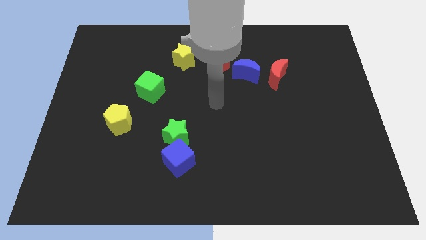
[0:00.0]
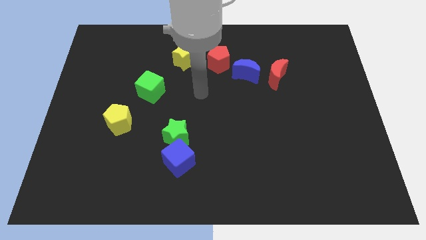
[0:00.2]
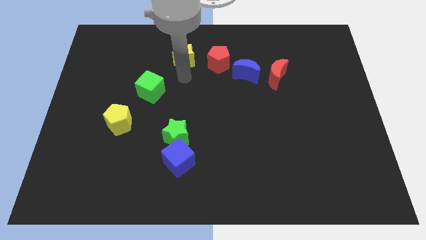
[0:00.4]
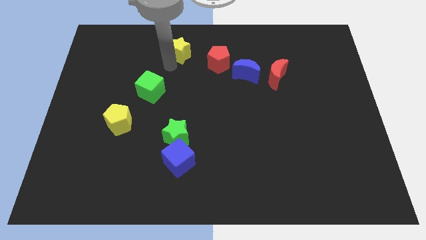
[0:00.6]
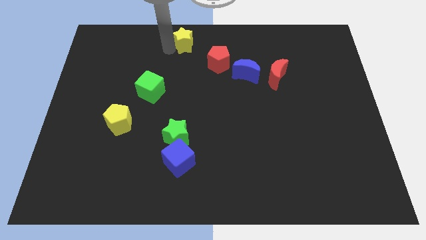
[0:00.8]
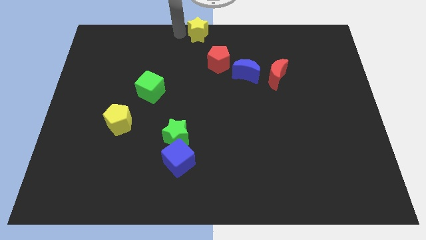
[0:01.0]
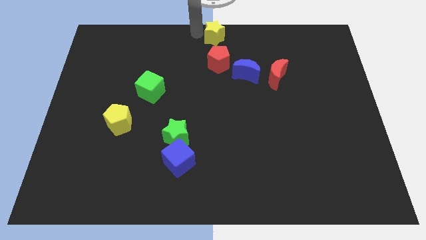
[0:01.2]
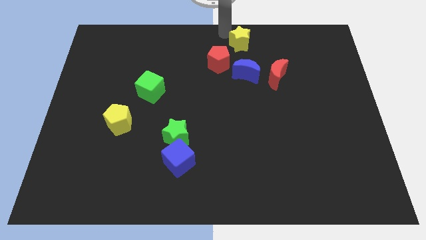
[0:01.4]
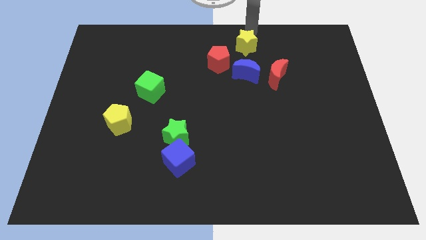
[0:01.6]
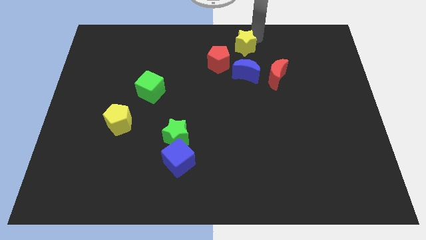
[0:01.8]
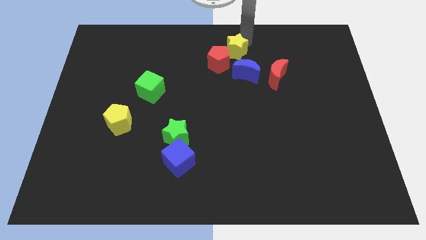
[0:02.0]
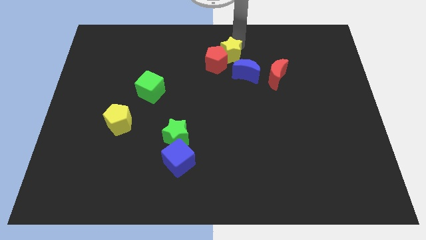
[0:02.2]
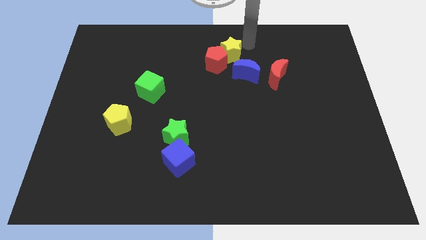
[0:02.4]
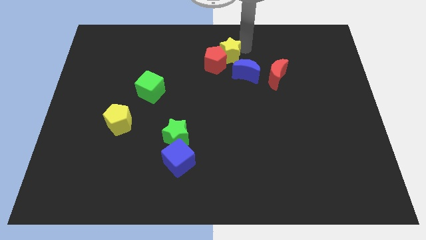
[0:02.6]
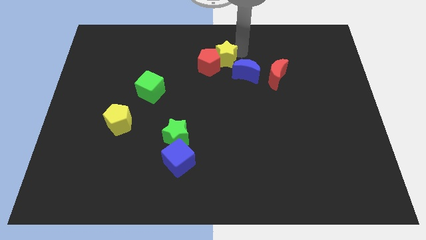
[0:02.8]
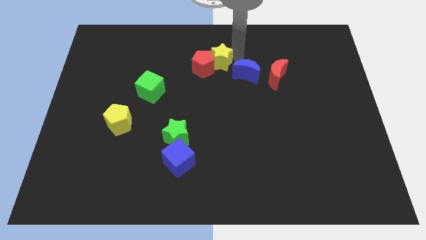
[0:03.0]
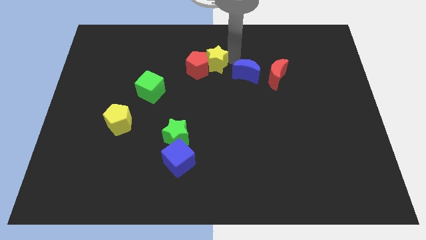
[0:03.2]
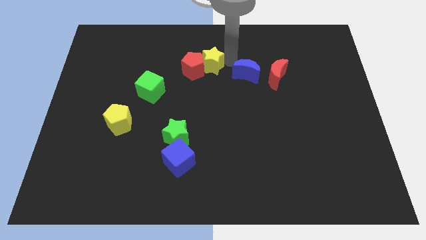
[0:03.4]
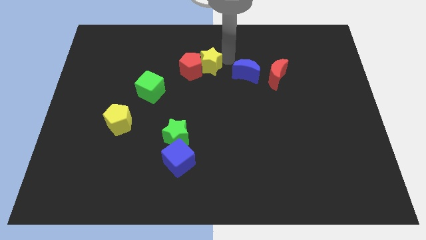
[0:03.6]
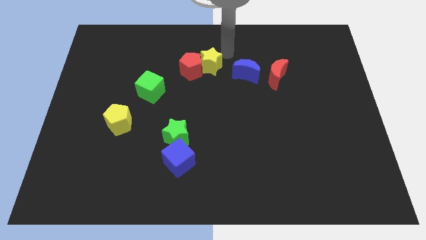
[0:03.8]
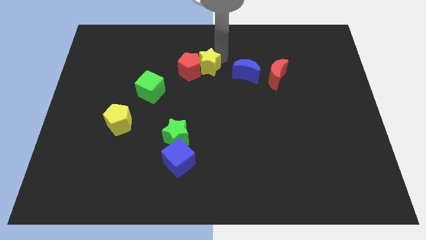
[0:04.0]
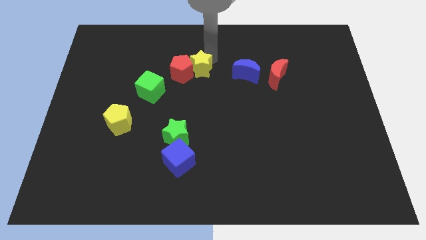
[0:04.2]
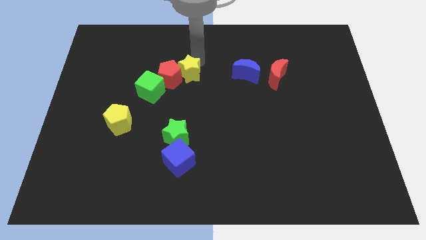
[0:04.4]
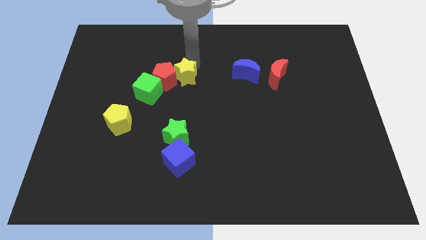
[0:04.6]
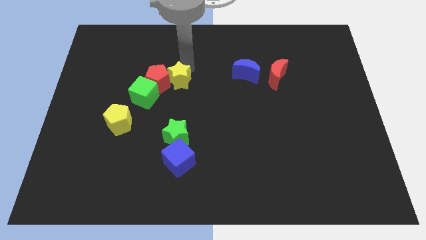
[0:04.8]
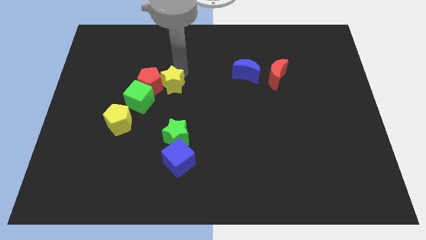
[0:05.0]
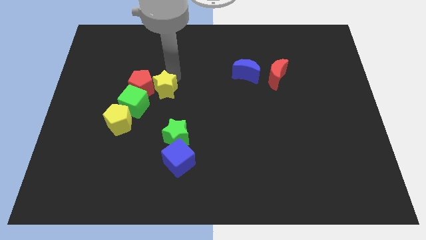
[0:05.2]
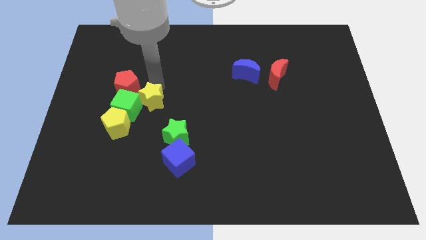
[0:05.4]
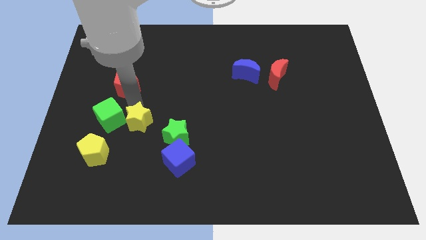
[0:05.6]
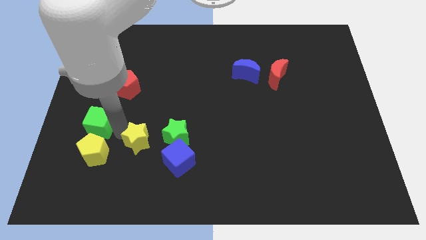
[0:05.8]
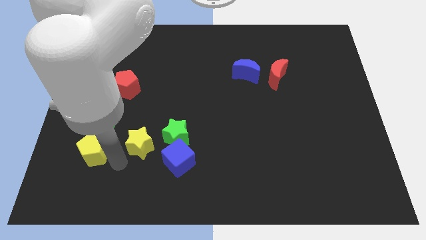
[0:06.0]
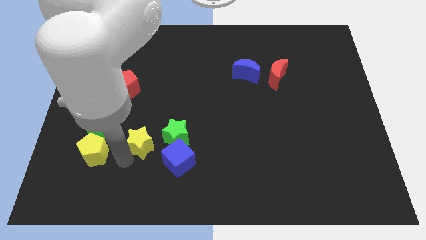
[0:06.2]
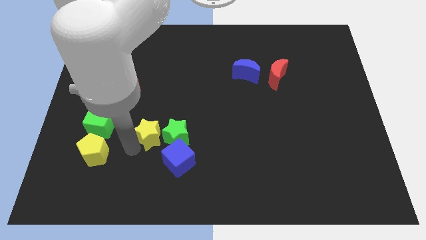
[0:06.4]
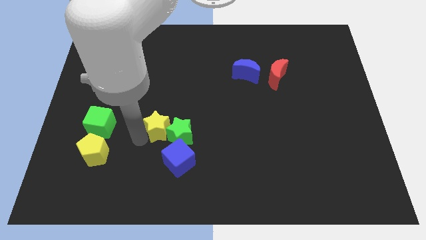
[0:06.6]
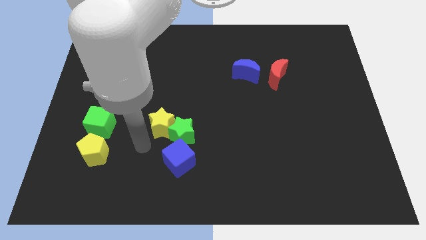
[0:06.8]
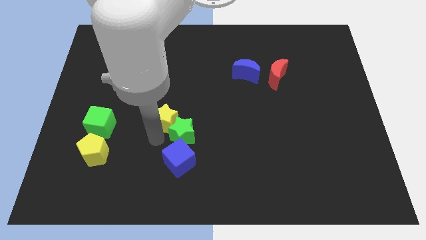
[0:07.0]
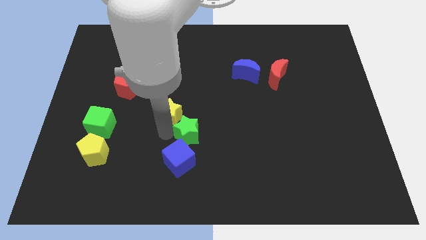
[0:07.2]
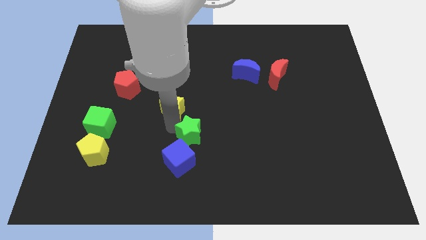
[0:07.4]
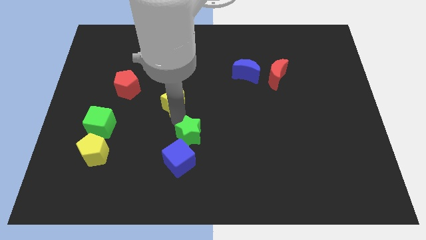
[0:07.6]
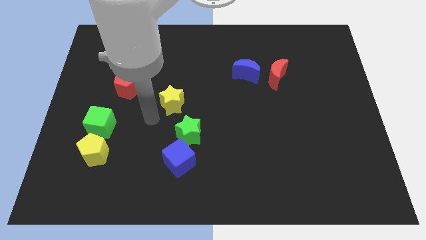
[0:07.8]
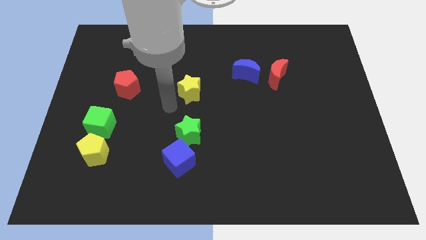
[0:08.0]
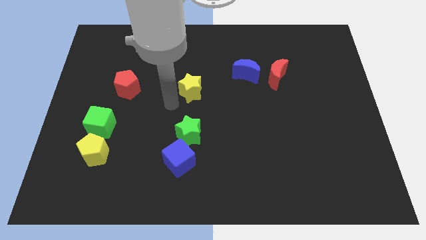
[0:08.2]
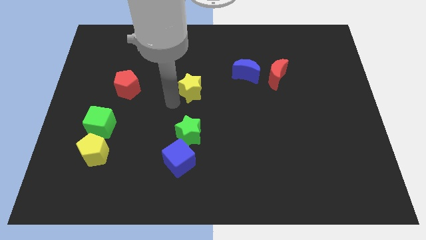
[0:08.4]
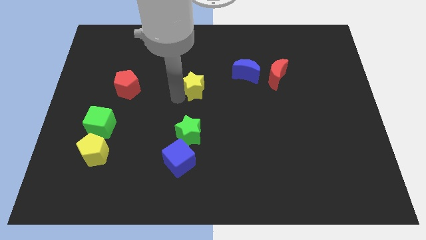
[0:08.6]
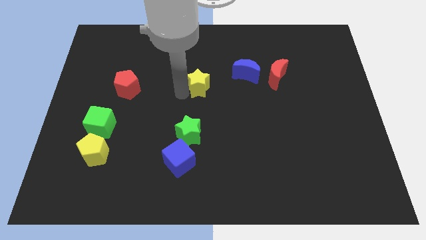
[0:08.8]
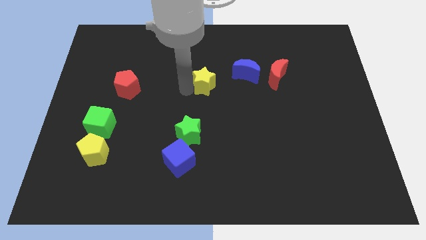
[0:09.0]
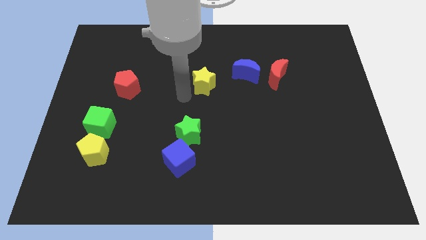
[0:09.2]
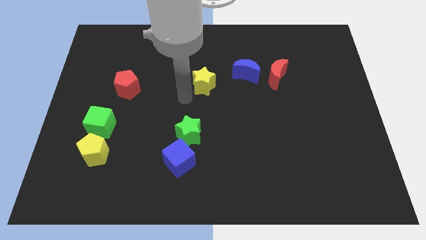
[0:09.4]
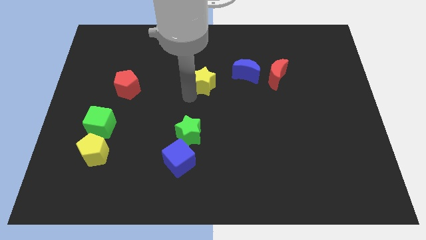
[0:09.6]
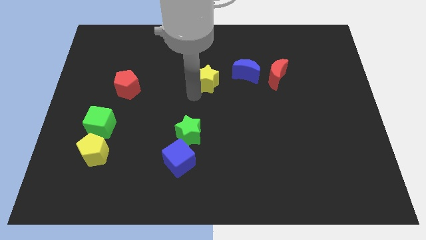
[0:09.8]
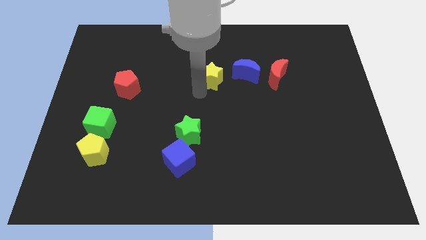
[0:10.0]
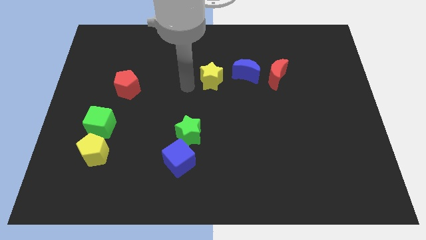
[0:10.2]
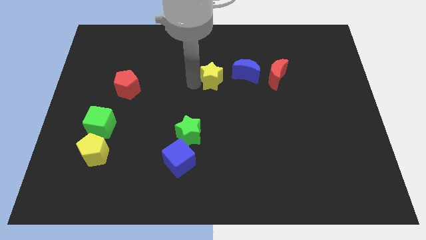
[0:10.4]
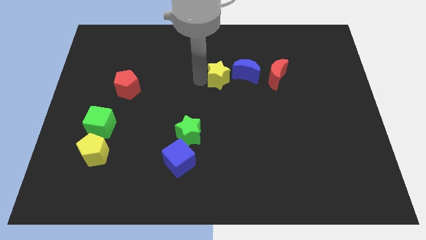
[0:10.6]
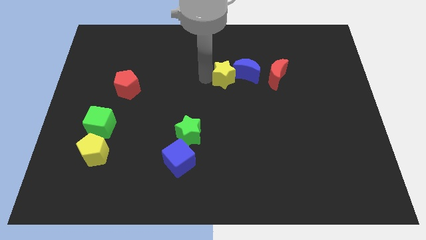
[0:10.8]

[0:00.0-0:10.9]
put the yellow star towards the blue moon

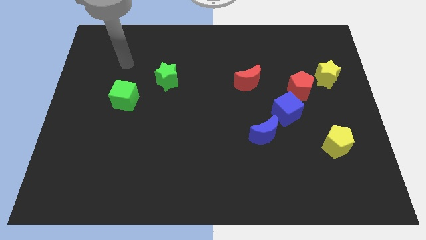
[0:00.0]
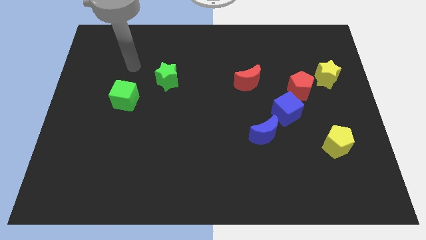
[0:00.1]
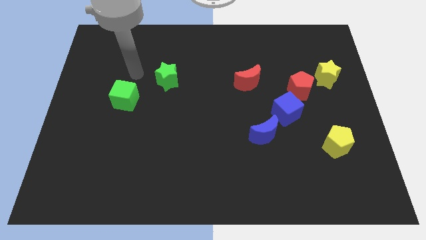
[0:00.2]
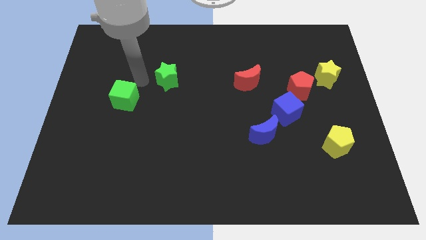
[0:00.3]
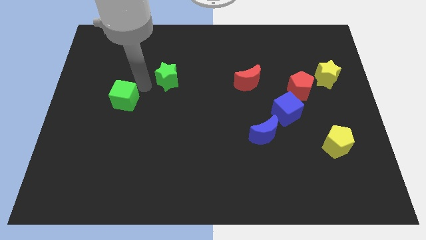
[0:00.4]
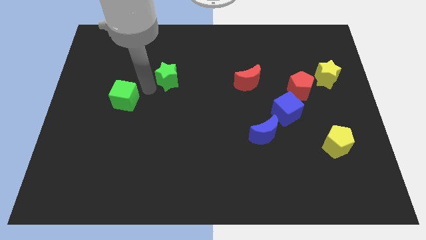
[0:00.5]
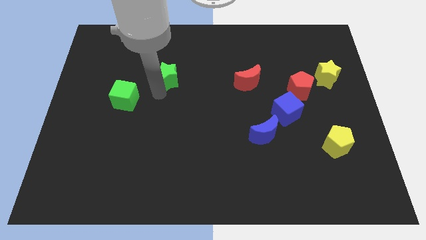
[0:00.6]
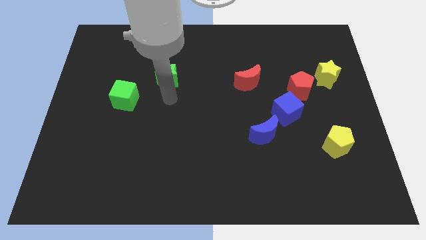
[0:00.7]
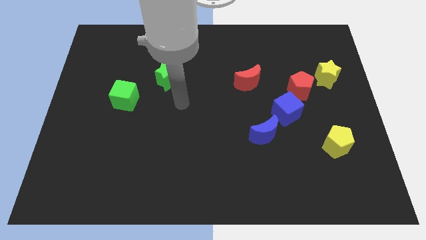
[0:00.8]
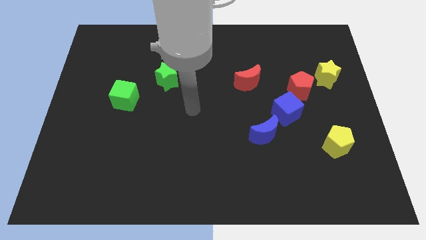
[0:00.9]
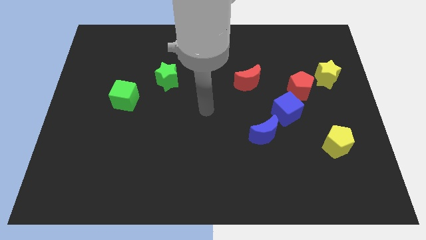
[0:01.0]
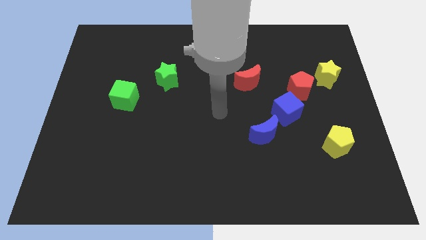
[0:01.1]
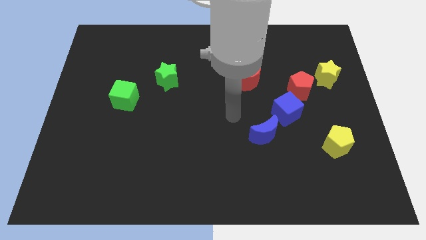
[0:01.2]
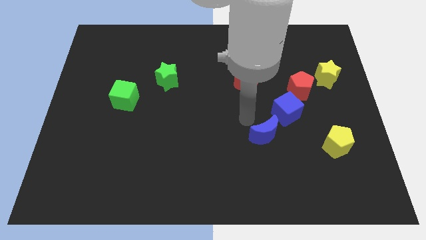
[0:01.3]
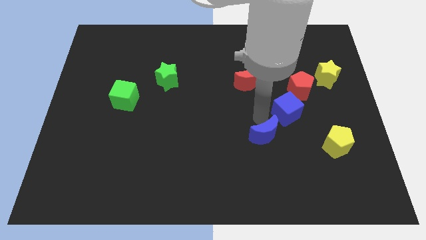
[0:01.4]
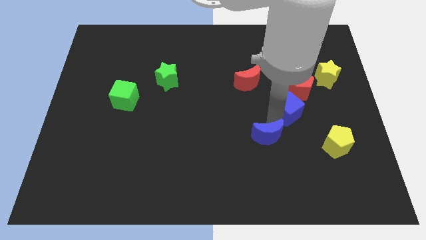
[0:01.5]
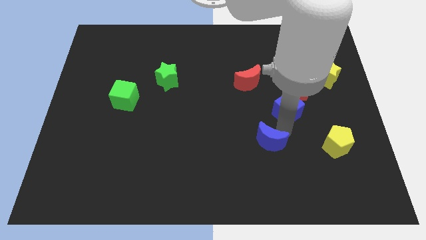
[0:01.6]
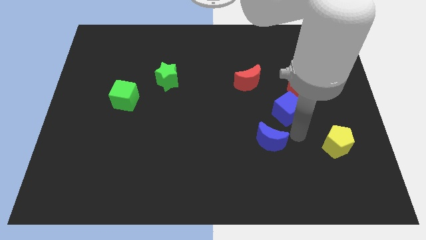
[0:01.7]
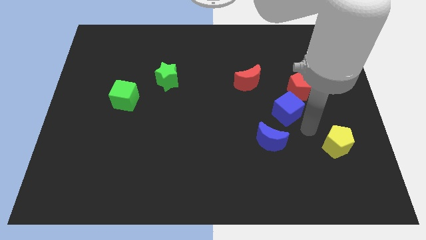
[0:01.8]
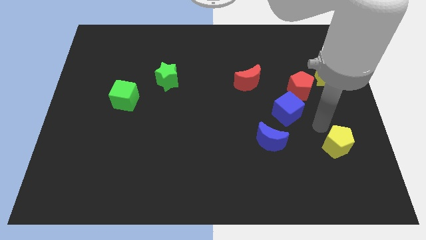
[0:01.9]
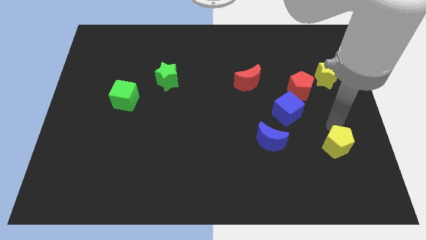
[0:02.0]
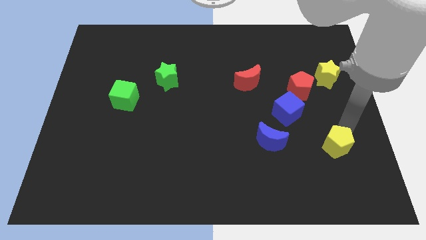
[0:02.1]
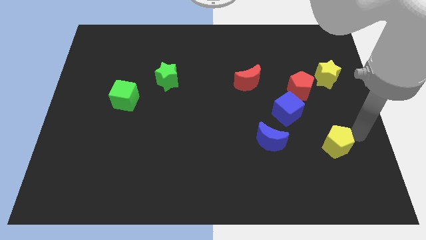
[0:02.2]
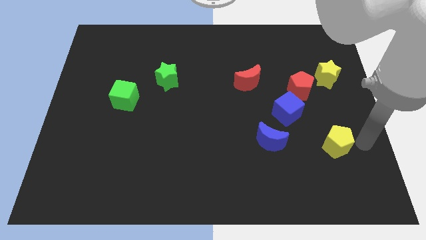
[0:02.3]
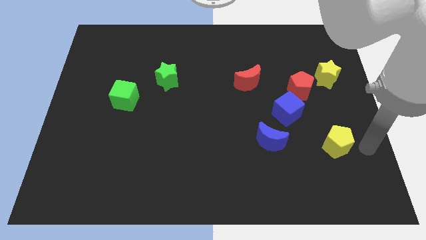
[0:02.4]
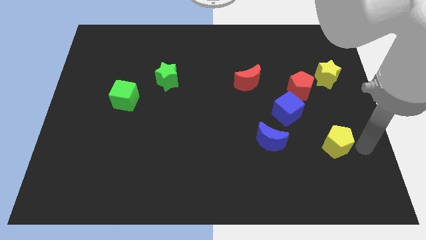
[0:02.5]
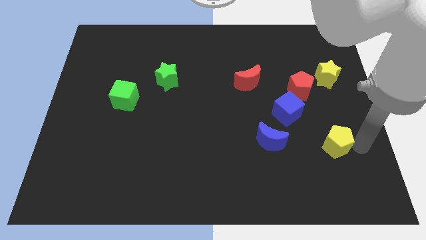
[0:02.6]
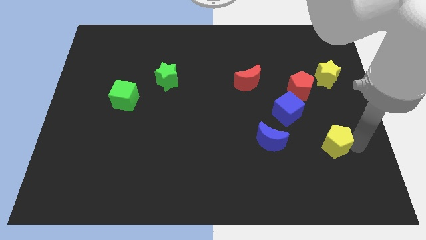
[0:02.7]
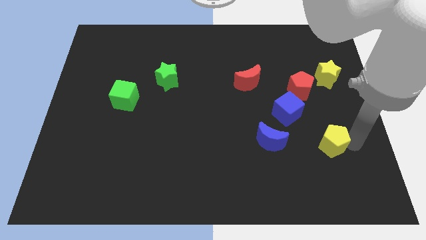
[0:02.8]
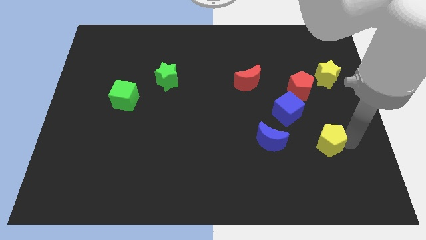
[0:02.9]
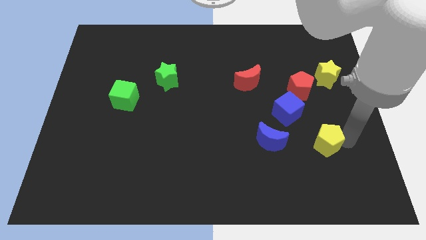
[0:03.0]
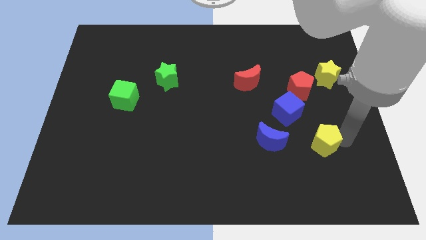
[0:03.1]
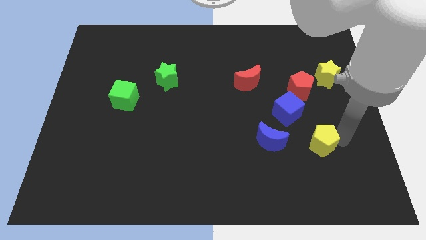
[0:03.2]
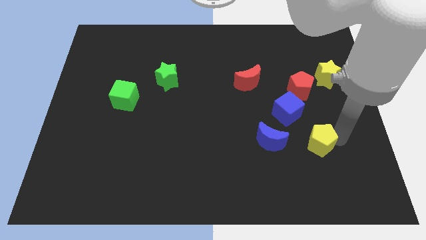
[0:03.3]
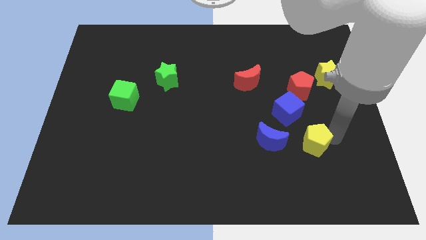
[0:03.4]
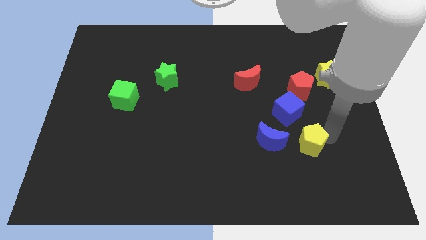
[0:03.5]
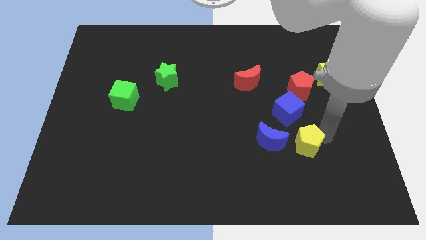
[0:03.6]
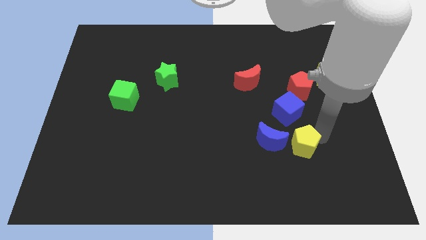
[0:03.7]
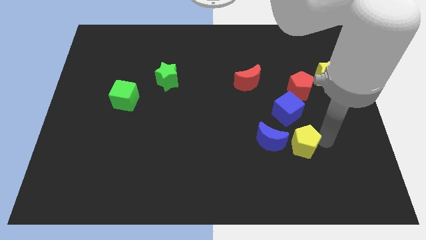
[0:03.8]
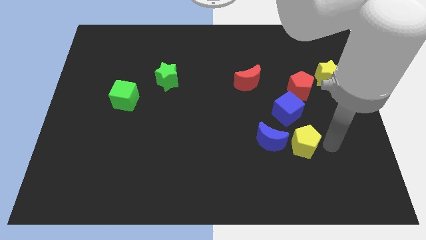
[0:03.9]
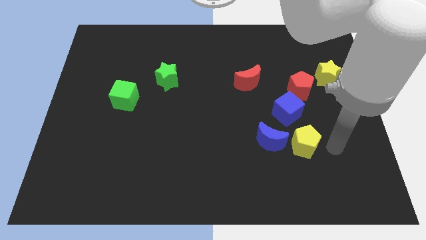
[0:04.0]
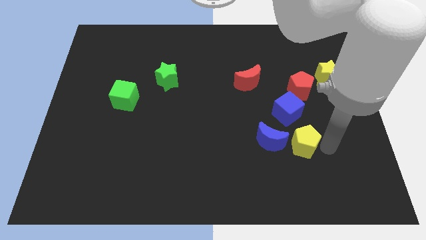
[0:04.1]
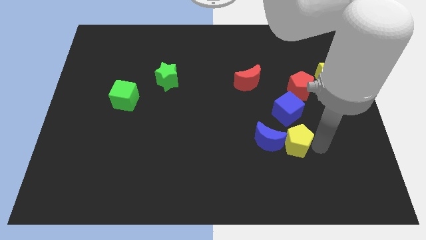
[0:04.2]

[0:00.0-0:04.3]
slide the yellow pentagon next to the blue moon
